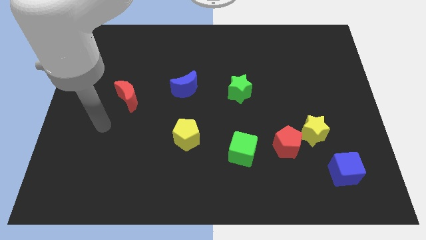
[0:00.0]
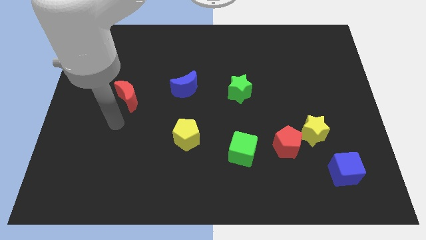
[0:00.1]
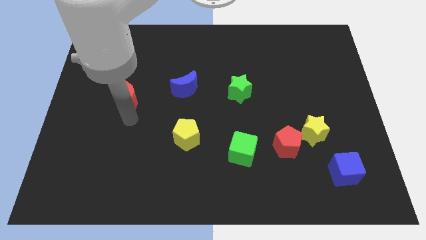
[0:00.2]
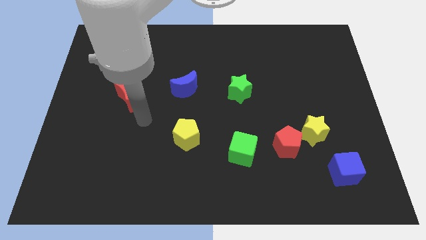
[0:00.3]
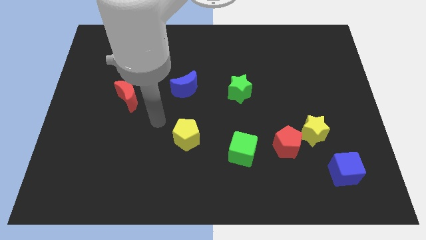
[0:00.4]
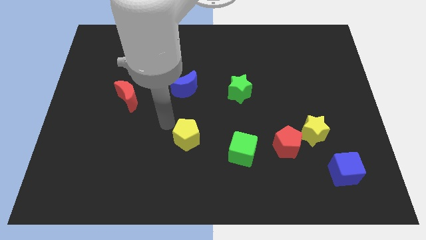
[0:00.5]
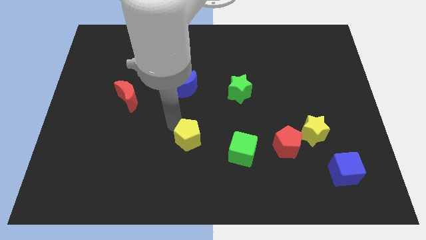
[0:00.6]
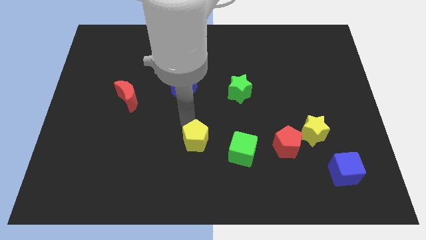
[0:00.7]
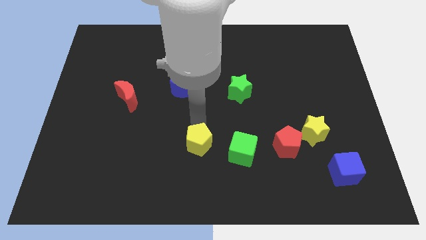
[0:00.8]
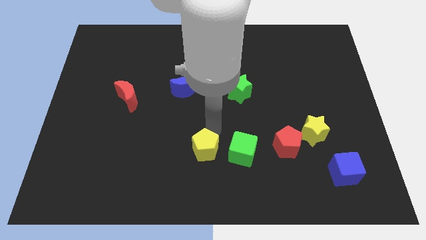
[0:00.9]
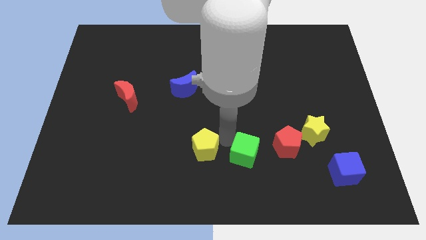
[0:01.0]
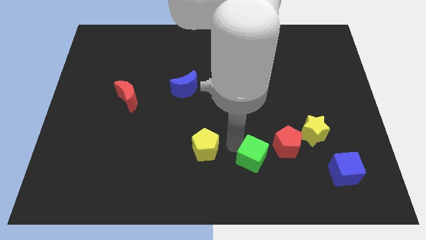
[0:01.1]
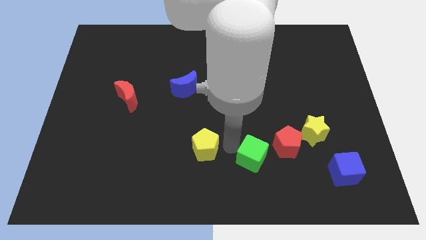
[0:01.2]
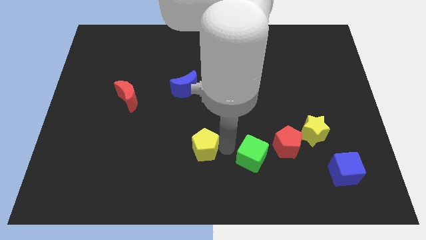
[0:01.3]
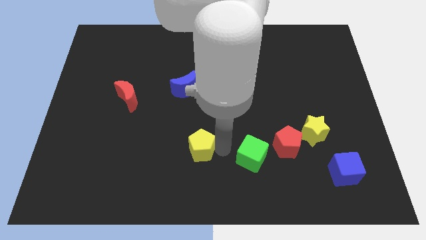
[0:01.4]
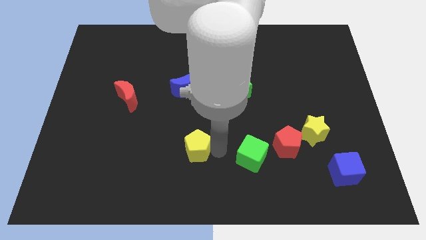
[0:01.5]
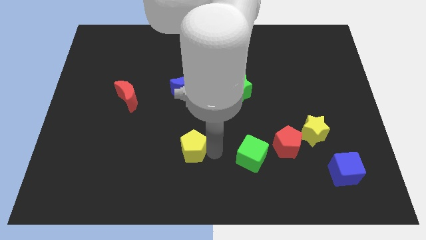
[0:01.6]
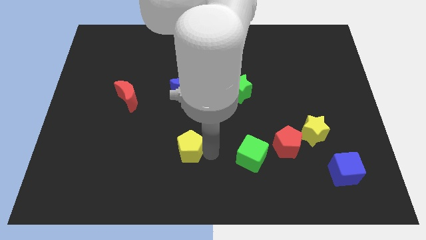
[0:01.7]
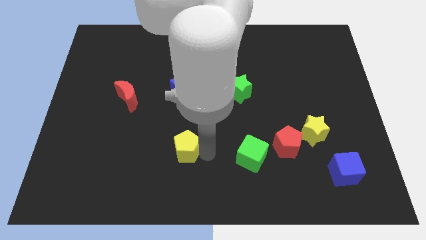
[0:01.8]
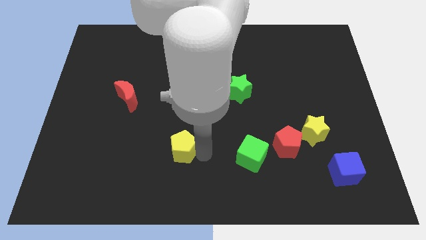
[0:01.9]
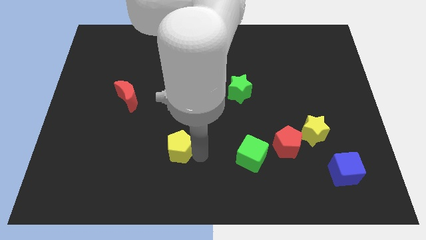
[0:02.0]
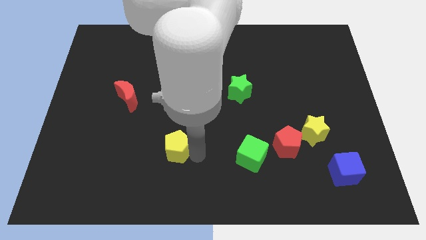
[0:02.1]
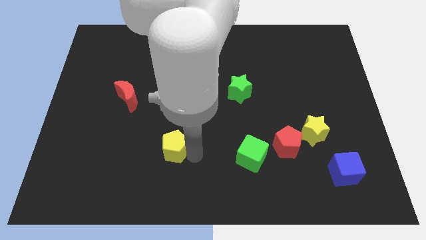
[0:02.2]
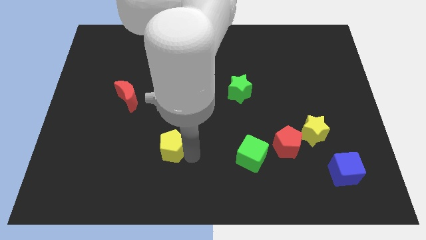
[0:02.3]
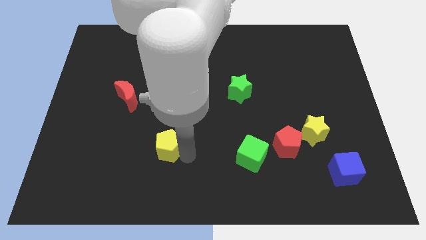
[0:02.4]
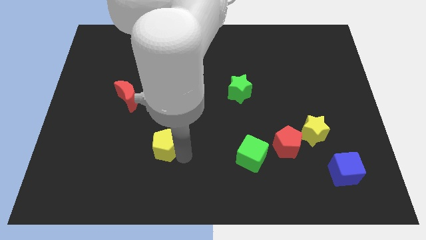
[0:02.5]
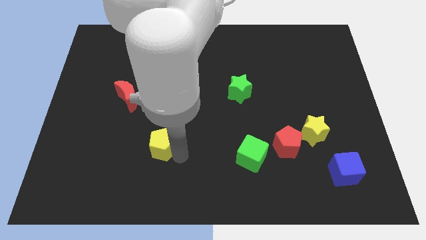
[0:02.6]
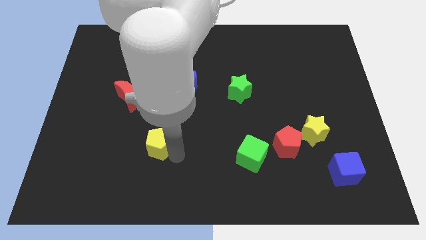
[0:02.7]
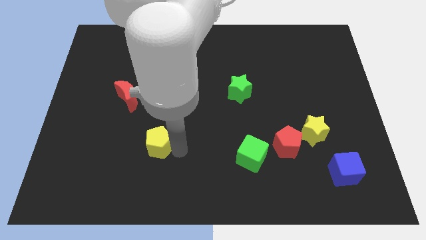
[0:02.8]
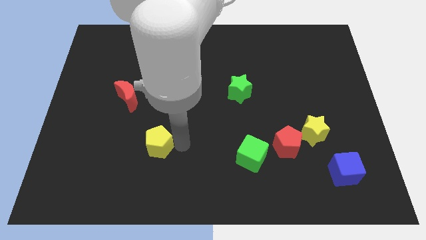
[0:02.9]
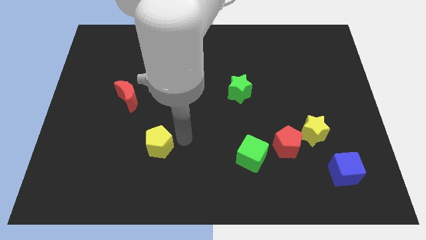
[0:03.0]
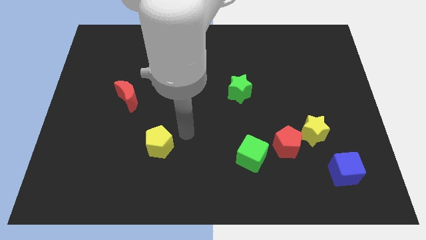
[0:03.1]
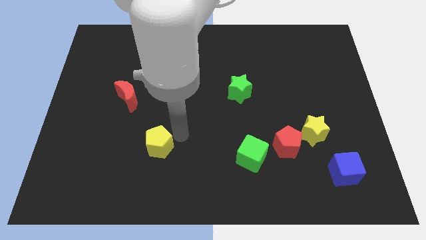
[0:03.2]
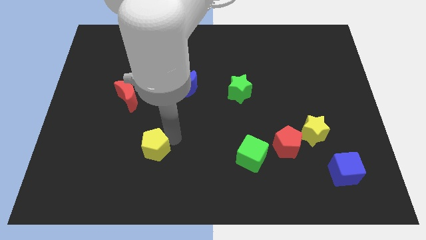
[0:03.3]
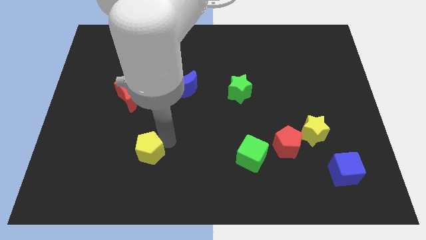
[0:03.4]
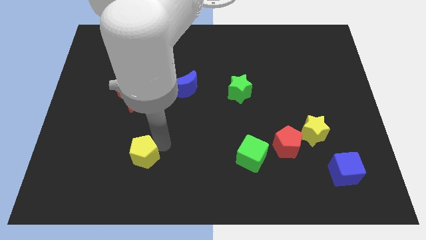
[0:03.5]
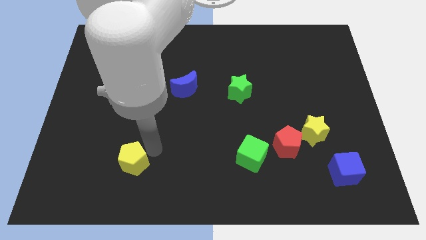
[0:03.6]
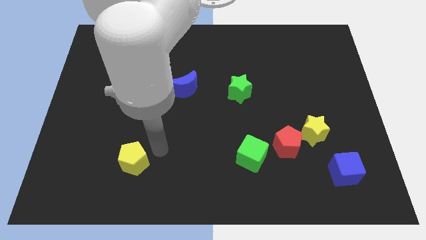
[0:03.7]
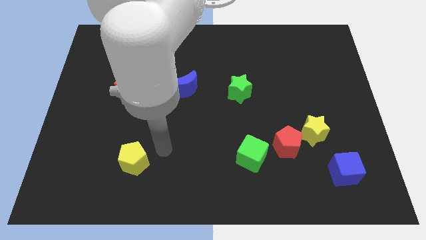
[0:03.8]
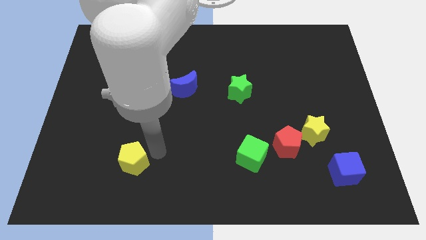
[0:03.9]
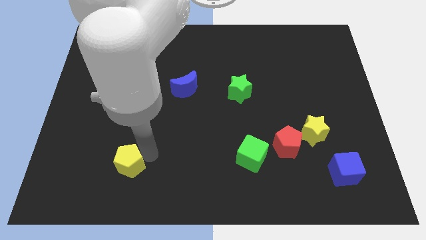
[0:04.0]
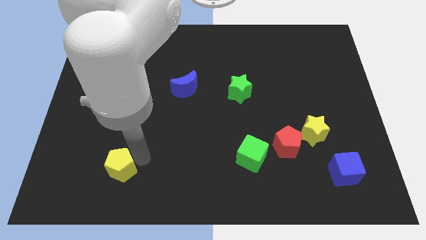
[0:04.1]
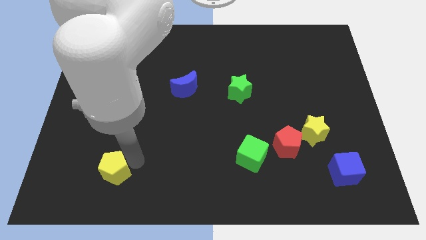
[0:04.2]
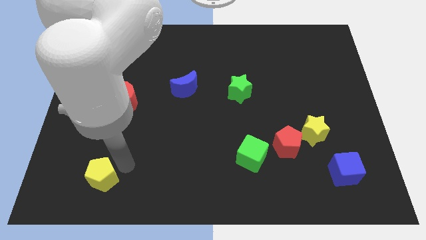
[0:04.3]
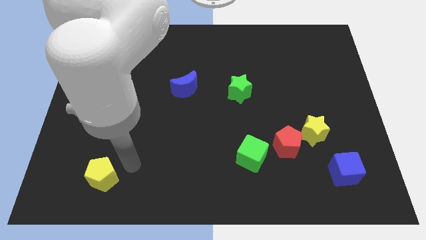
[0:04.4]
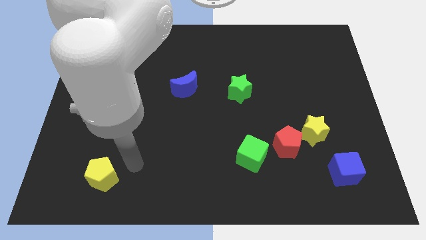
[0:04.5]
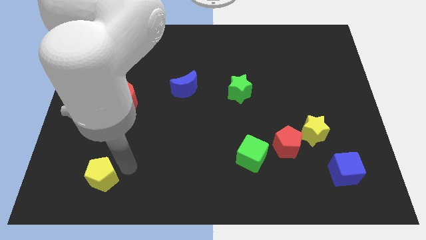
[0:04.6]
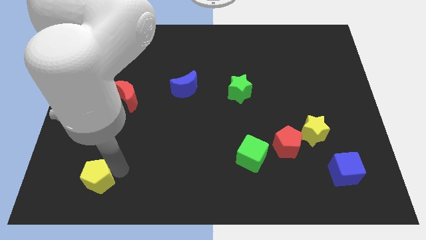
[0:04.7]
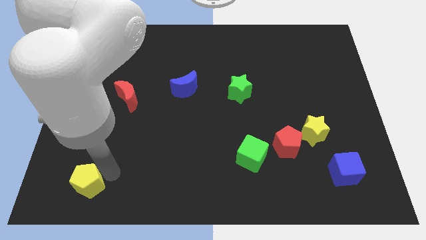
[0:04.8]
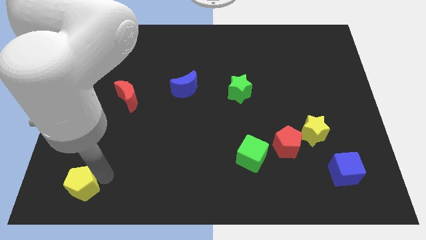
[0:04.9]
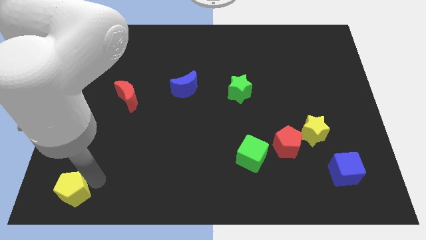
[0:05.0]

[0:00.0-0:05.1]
slide the yellow pentagon to the bottom left of the board

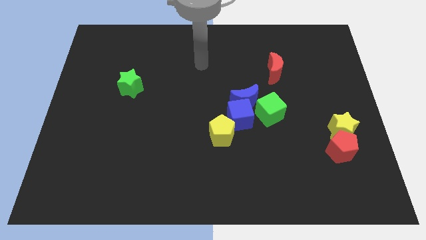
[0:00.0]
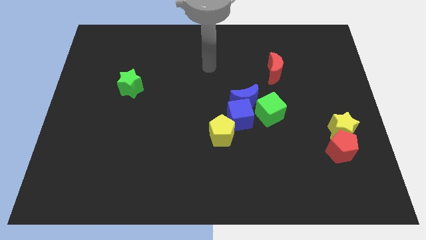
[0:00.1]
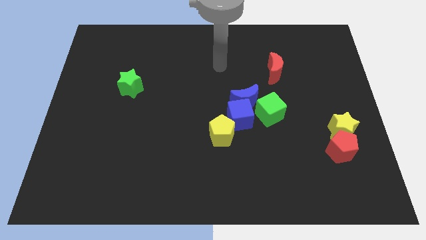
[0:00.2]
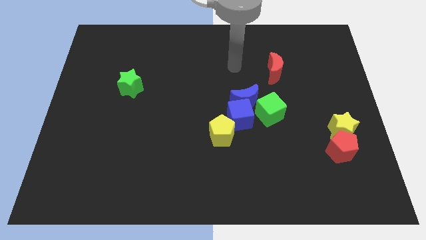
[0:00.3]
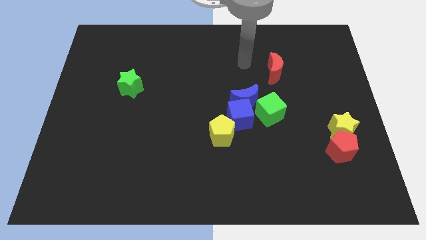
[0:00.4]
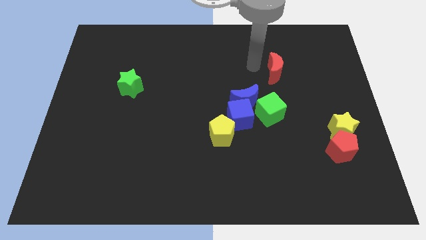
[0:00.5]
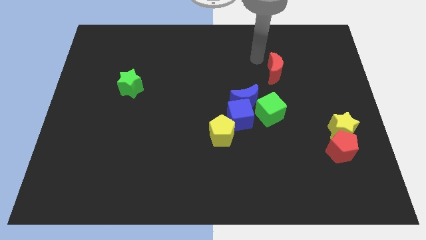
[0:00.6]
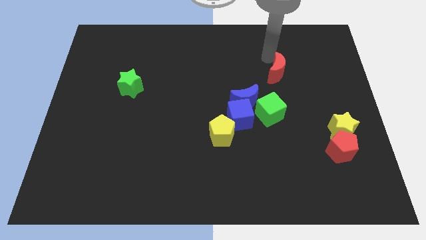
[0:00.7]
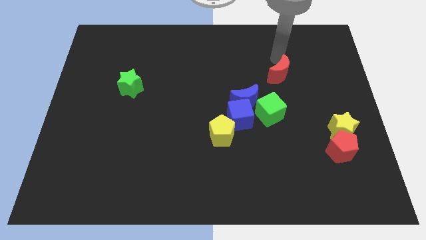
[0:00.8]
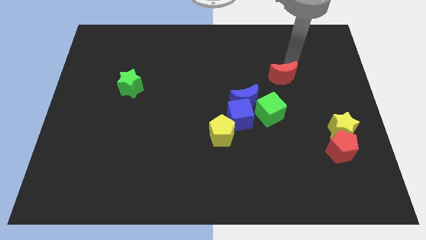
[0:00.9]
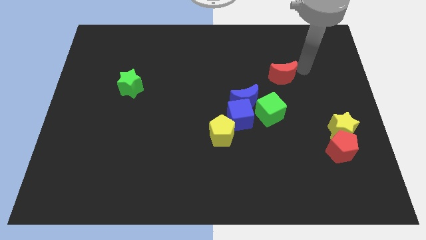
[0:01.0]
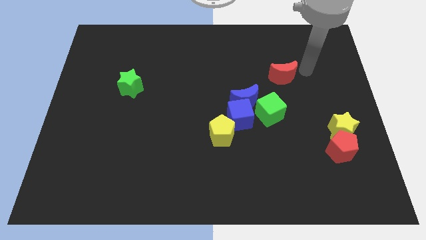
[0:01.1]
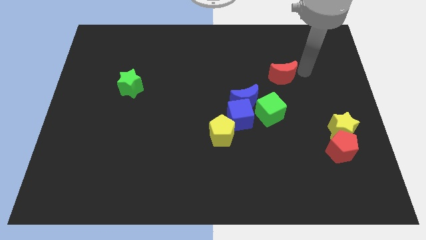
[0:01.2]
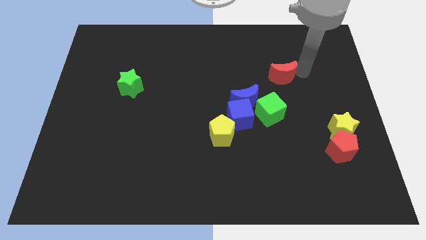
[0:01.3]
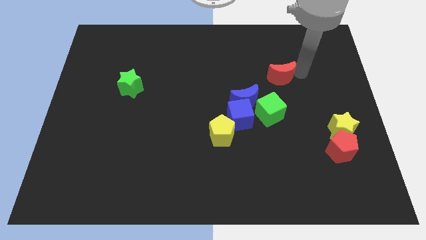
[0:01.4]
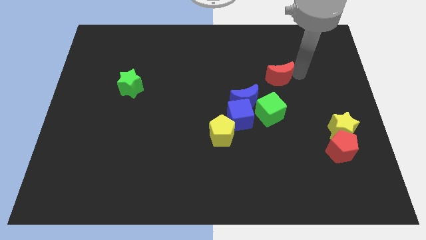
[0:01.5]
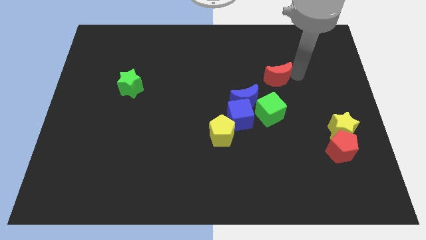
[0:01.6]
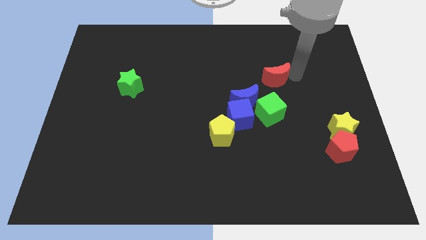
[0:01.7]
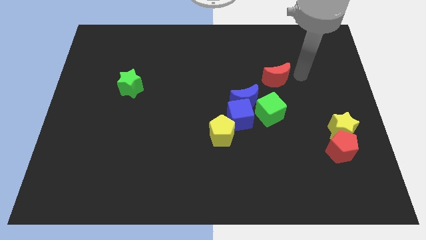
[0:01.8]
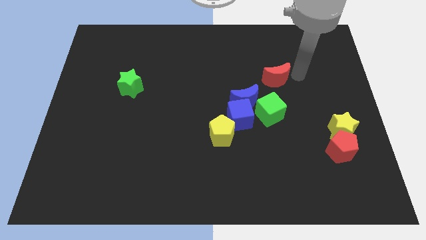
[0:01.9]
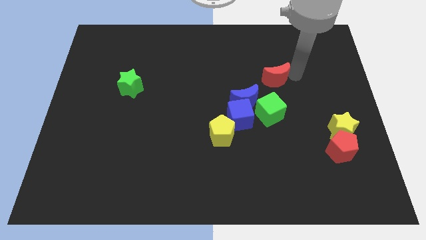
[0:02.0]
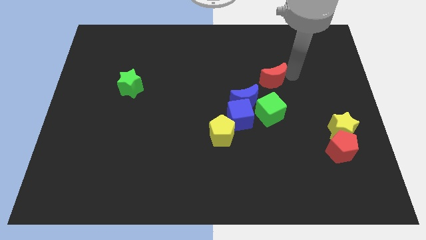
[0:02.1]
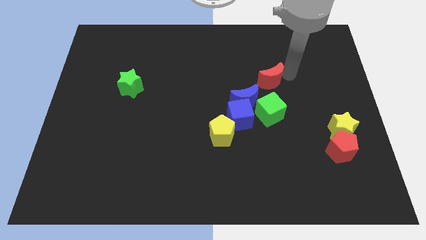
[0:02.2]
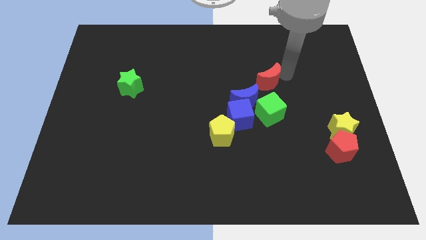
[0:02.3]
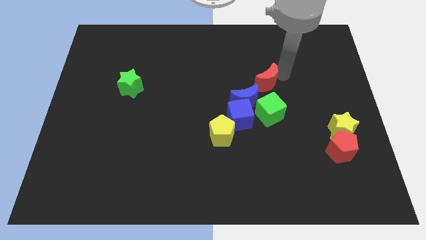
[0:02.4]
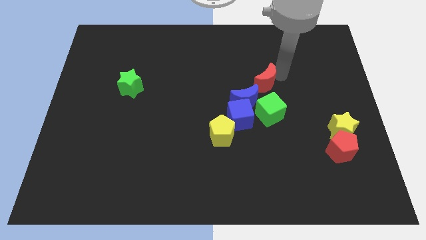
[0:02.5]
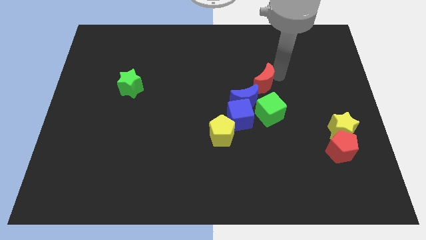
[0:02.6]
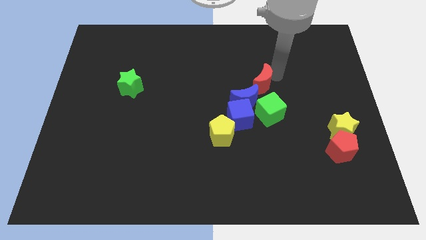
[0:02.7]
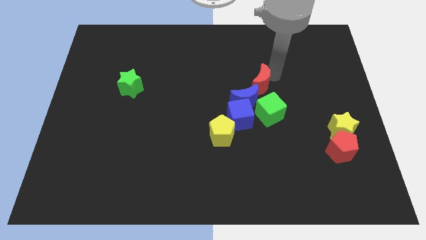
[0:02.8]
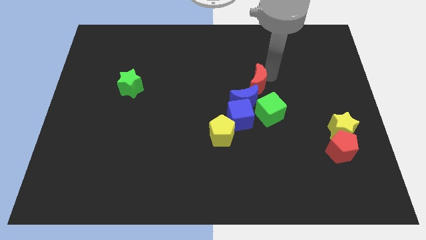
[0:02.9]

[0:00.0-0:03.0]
move the red moon to the middle
